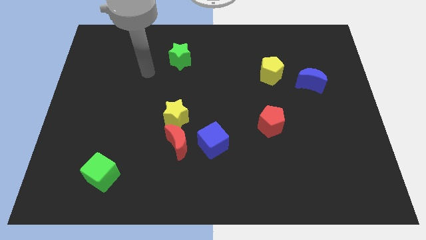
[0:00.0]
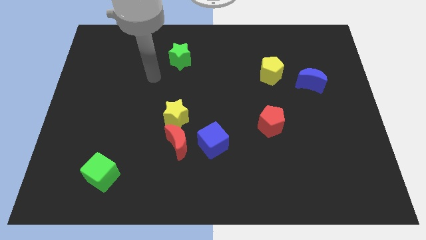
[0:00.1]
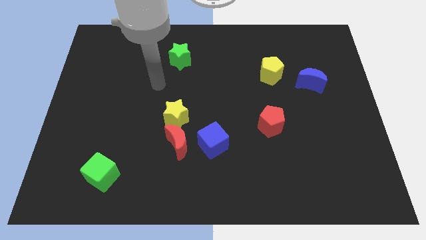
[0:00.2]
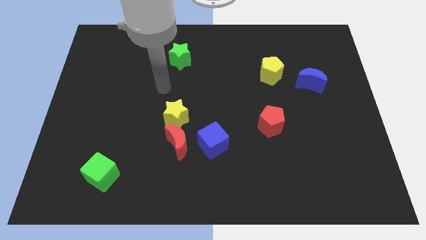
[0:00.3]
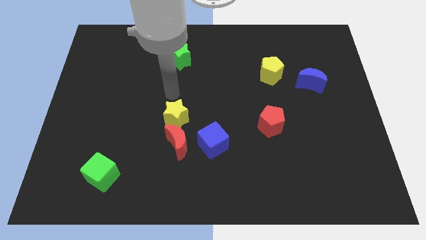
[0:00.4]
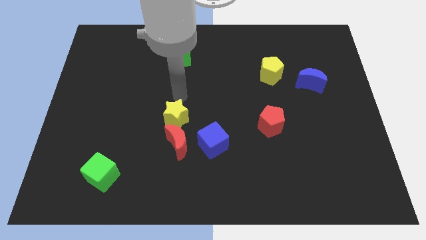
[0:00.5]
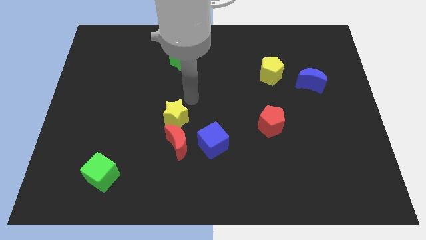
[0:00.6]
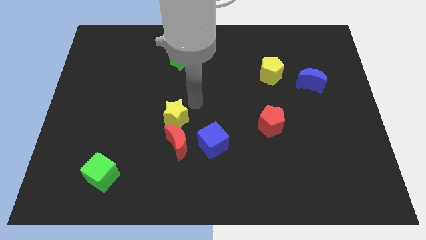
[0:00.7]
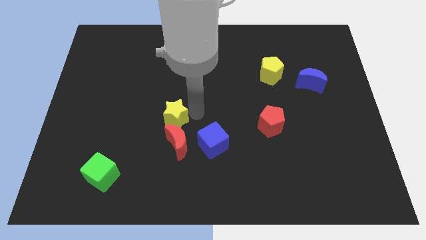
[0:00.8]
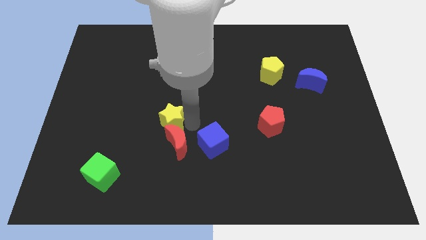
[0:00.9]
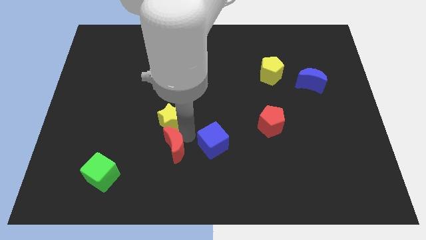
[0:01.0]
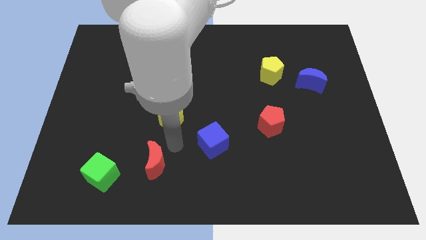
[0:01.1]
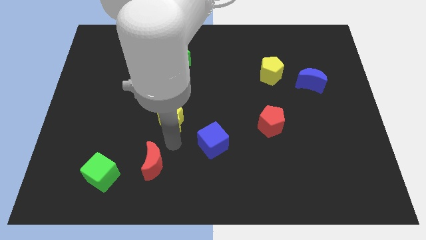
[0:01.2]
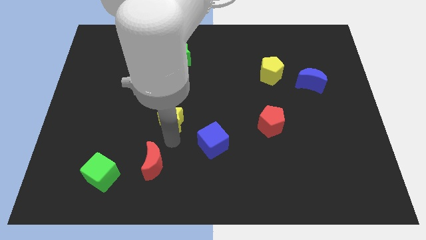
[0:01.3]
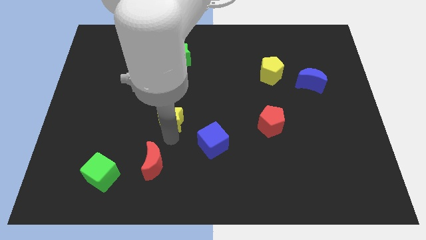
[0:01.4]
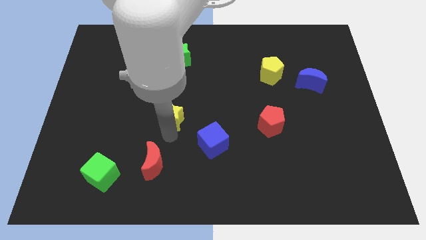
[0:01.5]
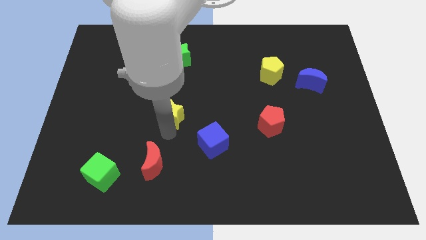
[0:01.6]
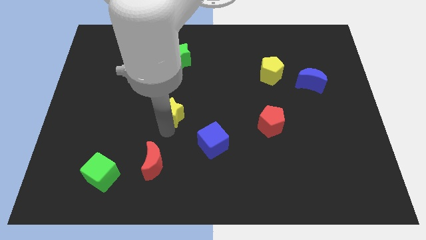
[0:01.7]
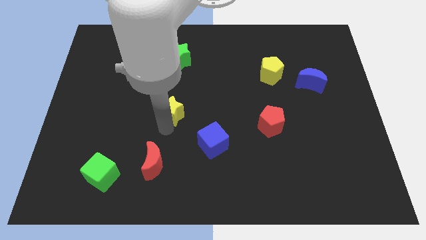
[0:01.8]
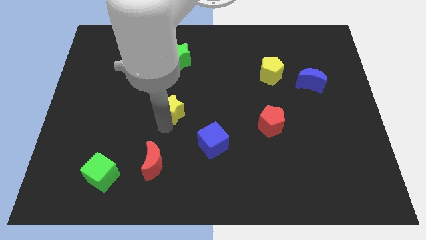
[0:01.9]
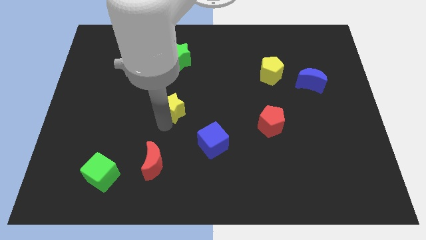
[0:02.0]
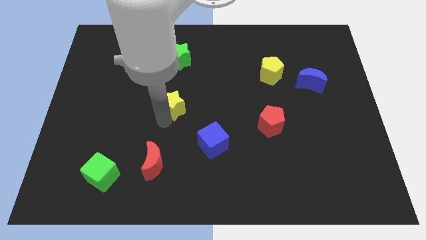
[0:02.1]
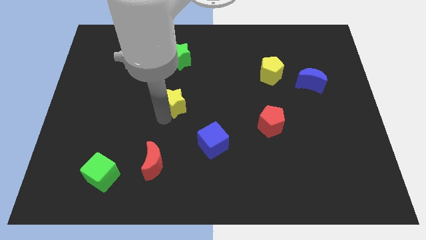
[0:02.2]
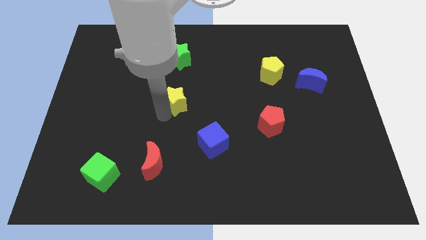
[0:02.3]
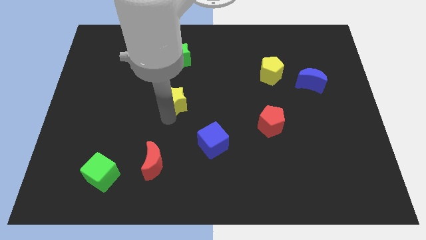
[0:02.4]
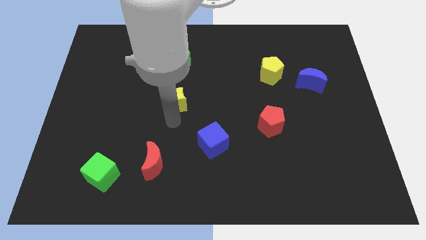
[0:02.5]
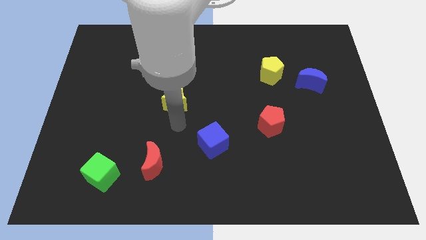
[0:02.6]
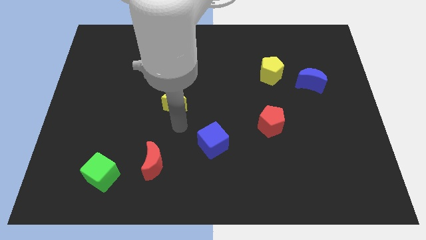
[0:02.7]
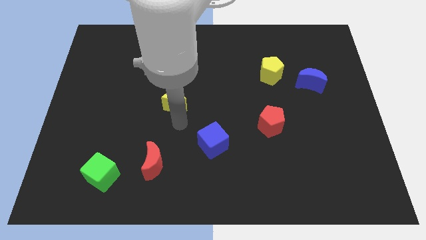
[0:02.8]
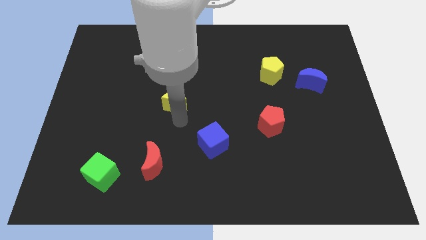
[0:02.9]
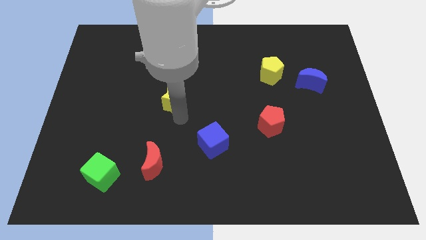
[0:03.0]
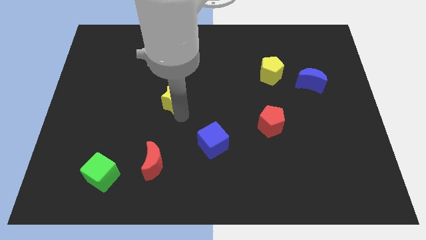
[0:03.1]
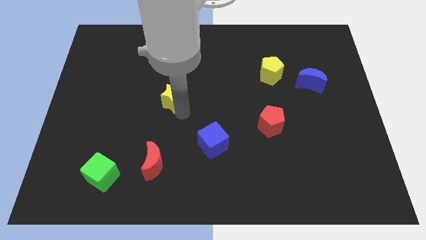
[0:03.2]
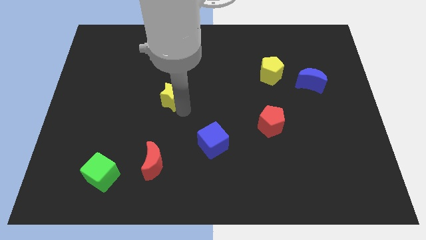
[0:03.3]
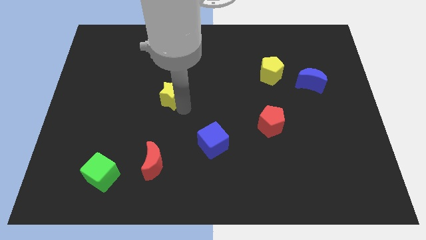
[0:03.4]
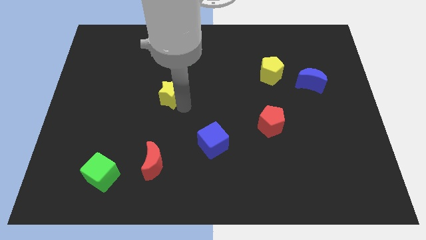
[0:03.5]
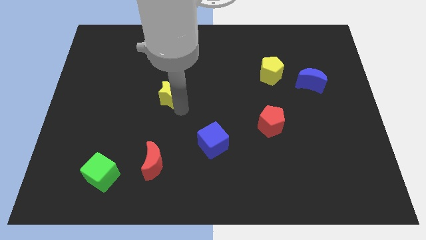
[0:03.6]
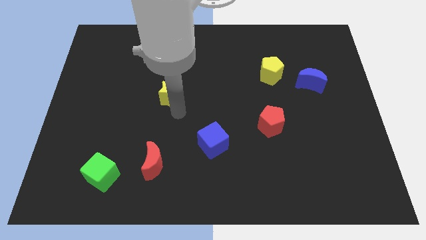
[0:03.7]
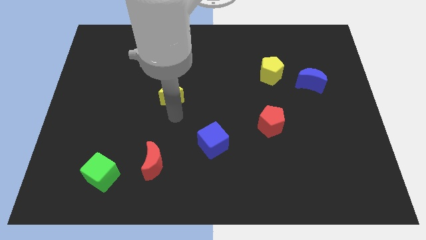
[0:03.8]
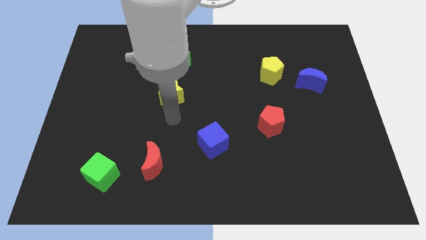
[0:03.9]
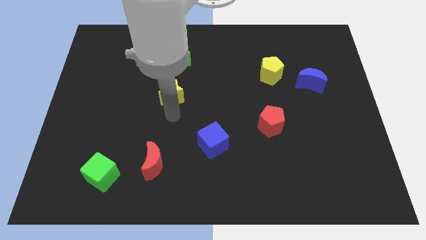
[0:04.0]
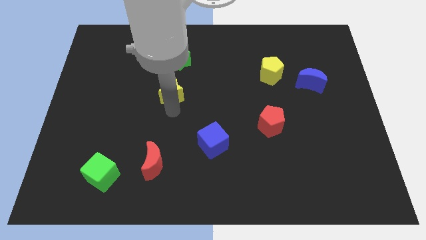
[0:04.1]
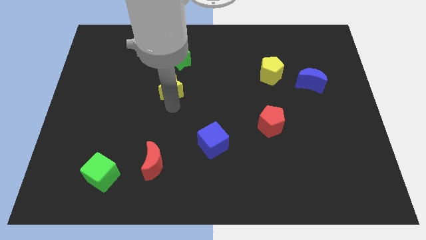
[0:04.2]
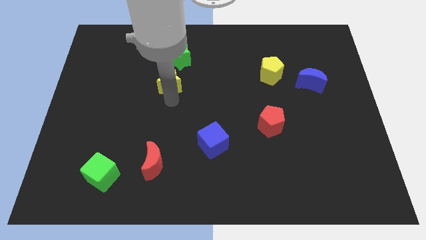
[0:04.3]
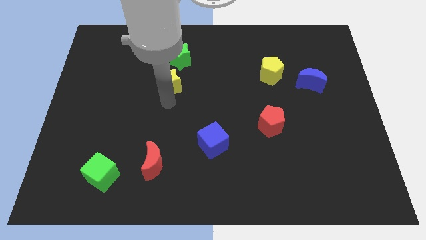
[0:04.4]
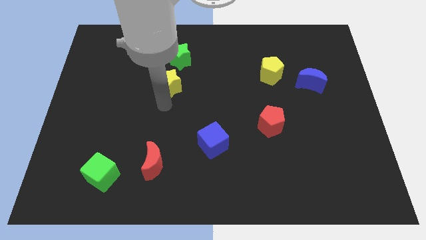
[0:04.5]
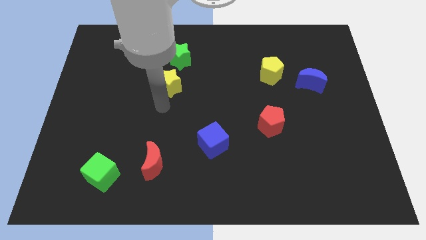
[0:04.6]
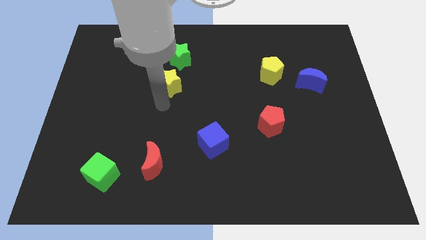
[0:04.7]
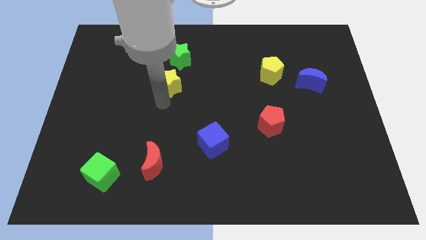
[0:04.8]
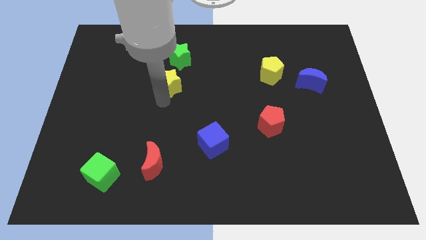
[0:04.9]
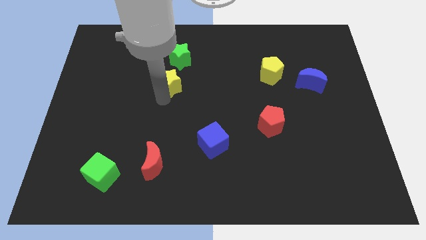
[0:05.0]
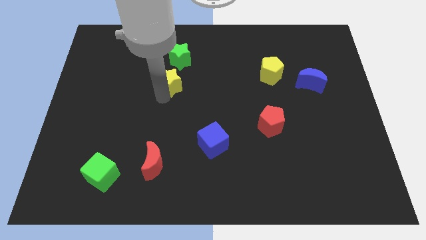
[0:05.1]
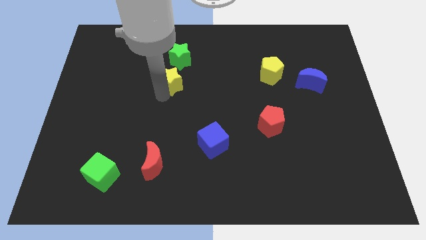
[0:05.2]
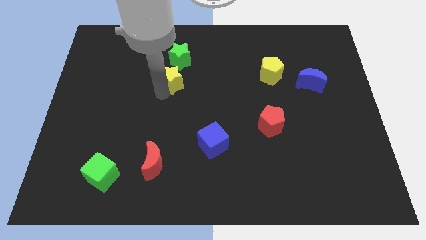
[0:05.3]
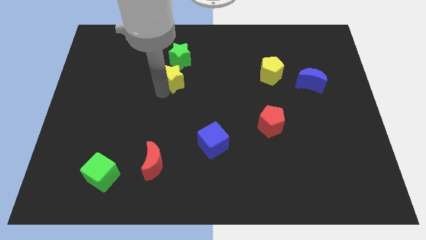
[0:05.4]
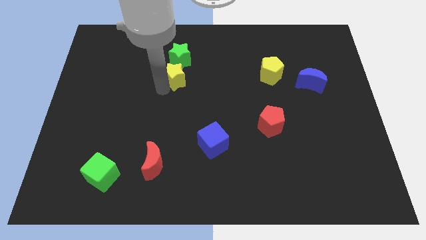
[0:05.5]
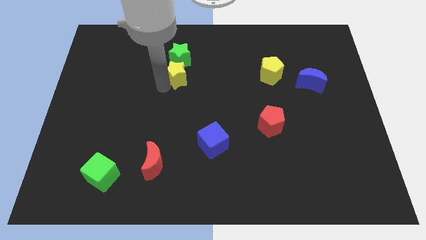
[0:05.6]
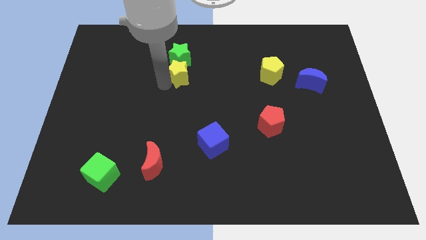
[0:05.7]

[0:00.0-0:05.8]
push the yellow star towards the green star

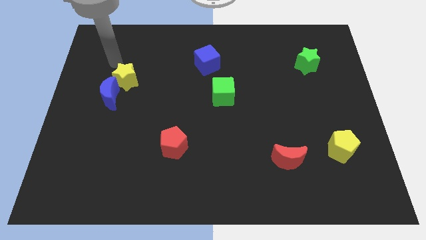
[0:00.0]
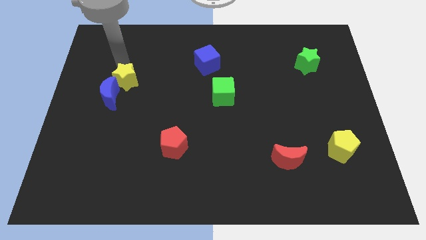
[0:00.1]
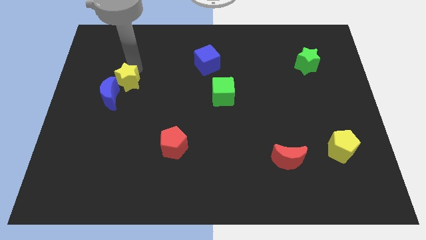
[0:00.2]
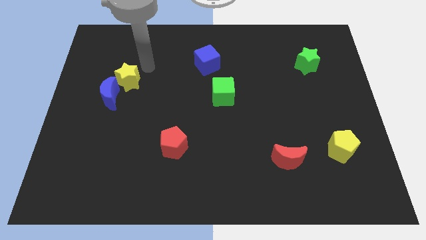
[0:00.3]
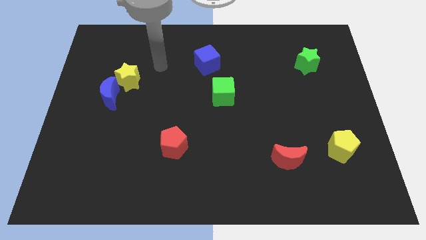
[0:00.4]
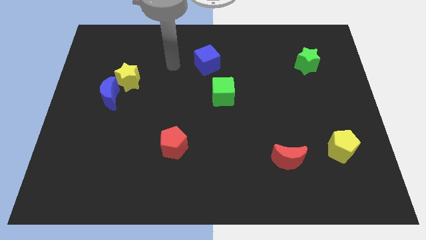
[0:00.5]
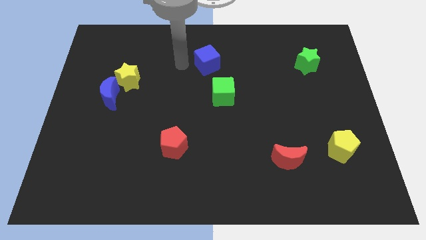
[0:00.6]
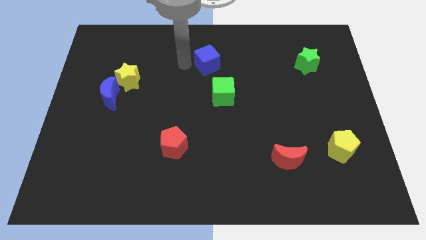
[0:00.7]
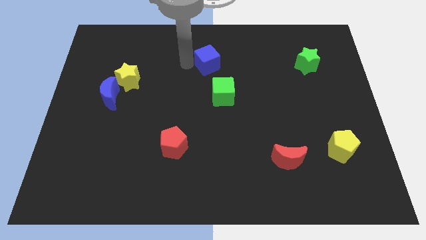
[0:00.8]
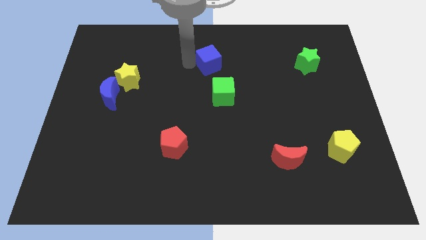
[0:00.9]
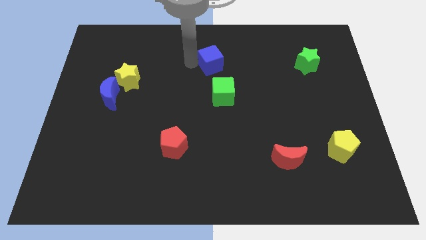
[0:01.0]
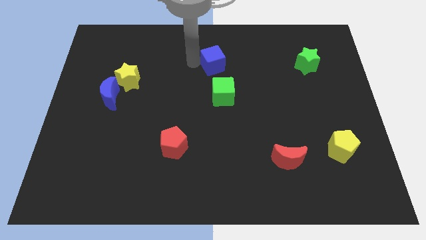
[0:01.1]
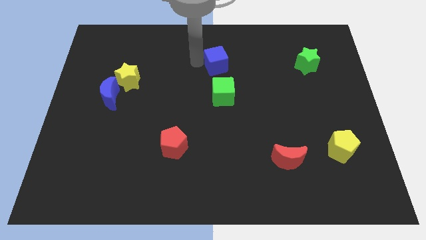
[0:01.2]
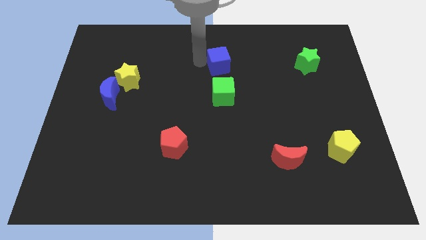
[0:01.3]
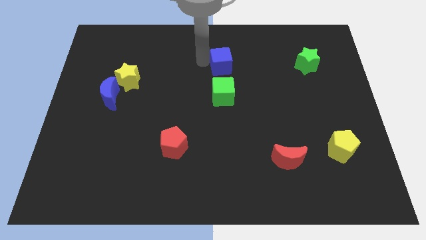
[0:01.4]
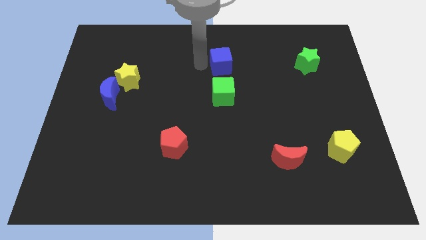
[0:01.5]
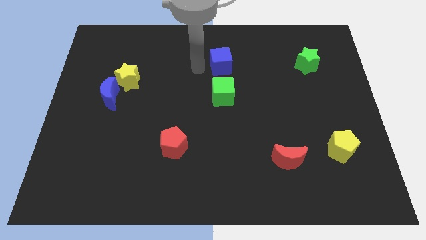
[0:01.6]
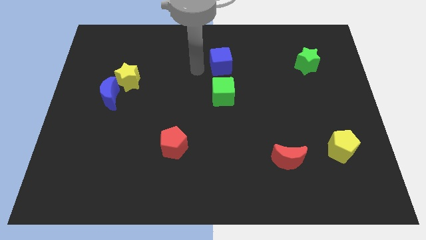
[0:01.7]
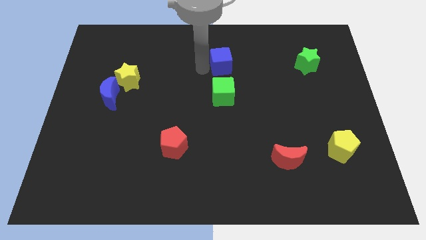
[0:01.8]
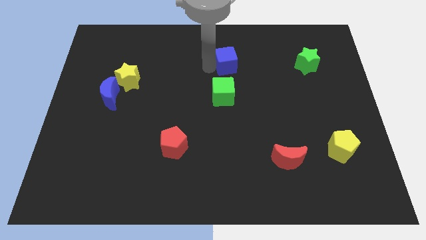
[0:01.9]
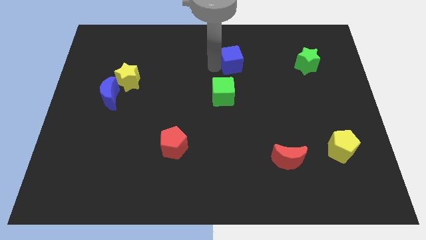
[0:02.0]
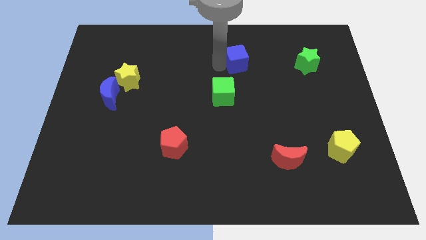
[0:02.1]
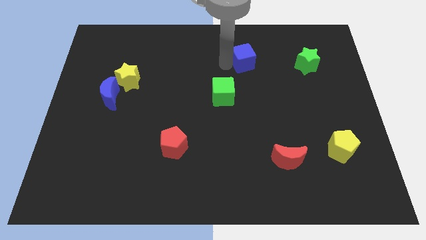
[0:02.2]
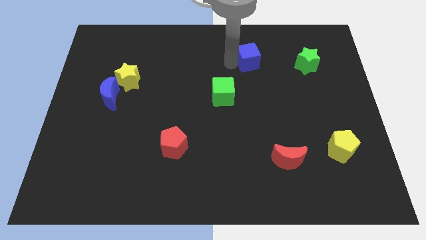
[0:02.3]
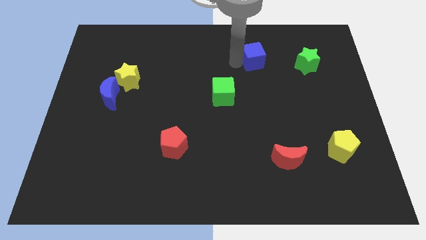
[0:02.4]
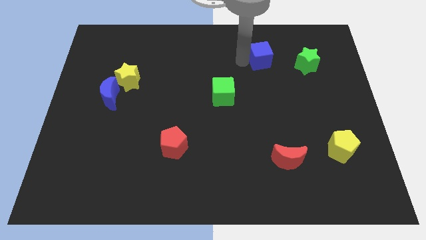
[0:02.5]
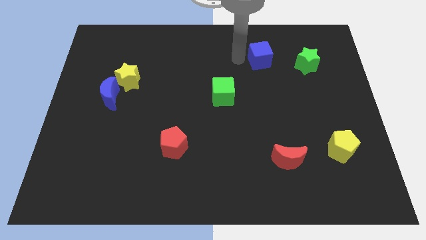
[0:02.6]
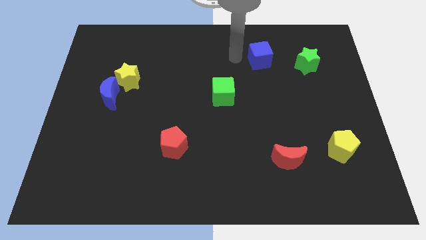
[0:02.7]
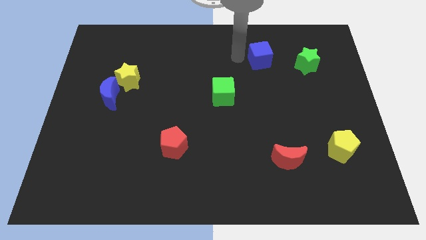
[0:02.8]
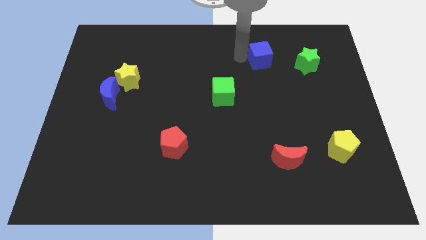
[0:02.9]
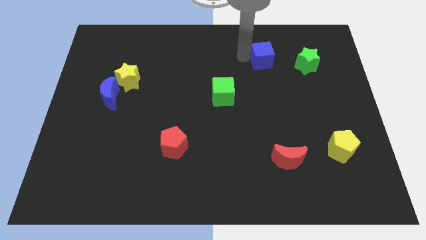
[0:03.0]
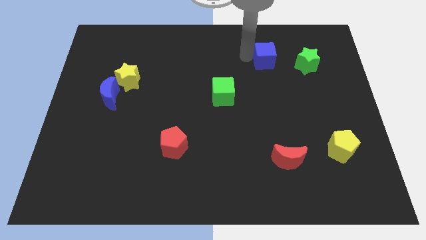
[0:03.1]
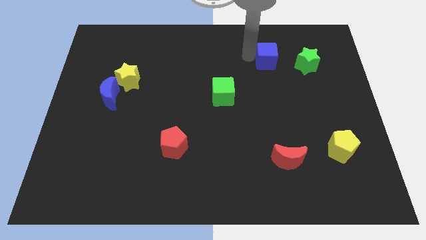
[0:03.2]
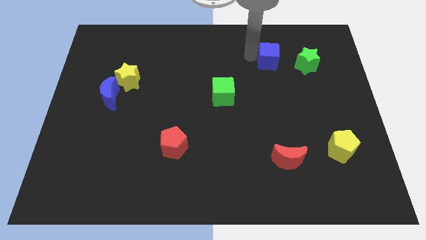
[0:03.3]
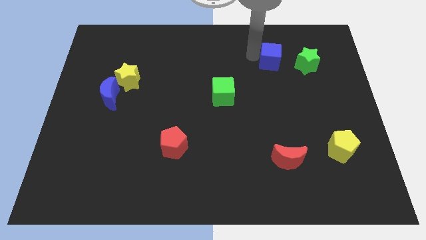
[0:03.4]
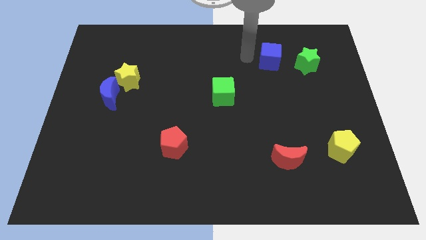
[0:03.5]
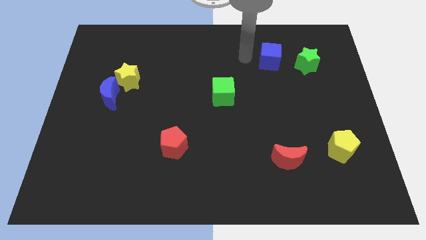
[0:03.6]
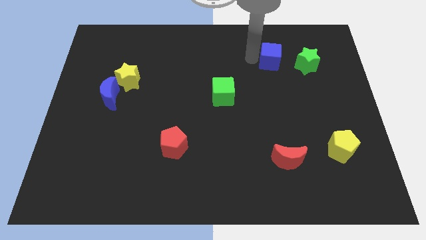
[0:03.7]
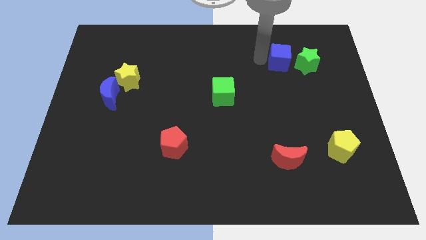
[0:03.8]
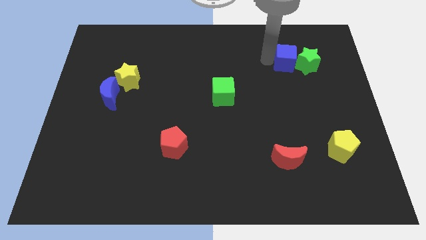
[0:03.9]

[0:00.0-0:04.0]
move the blue cube towards the green star
